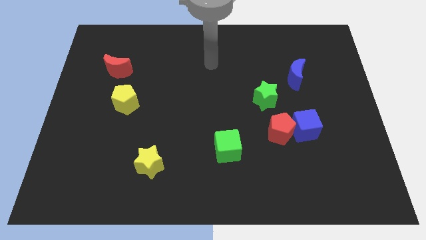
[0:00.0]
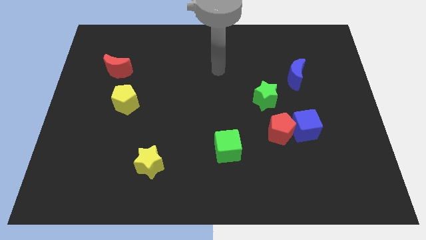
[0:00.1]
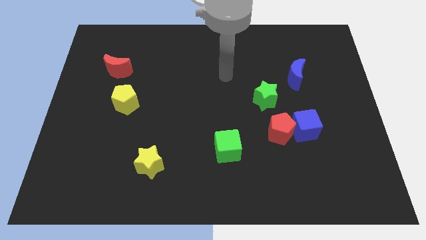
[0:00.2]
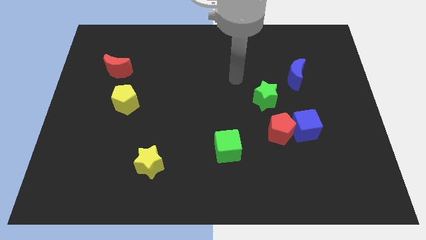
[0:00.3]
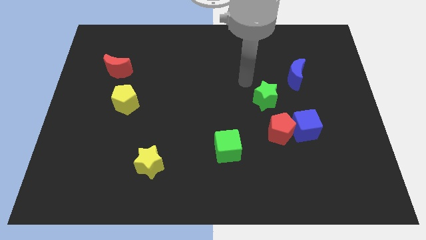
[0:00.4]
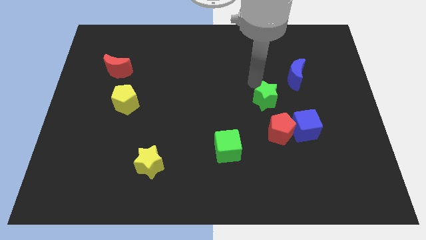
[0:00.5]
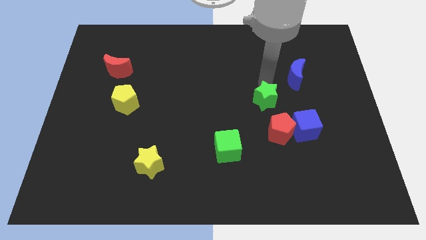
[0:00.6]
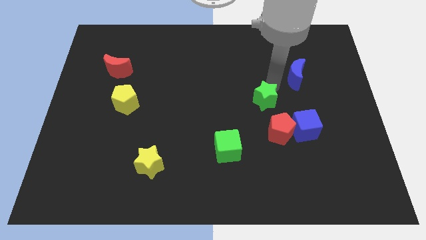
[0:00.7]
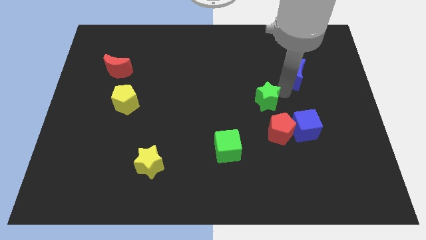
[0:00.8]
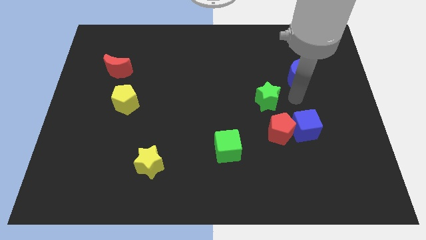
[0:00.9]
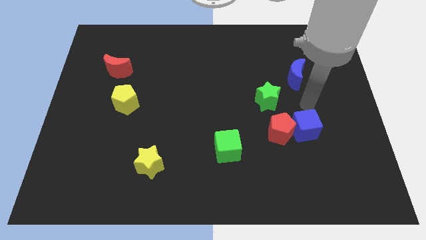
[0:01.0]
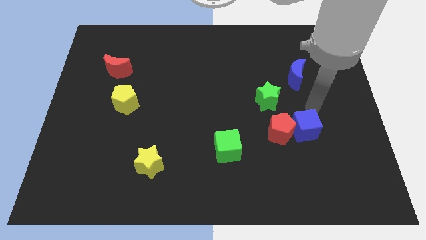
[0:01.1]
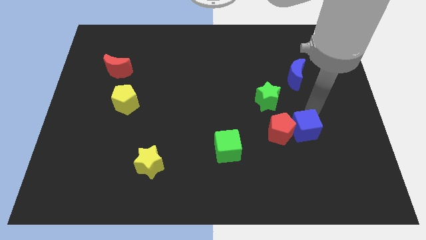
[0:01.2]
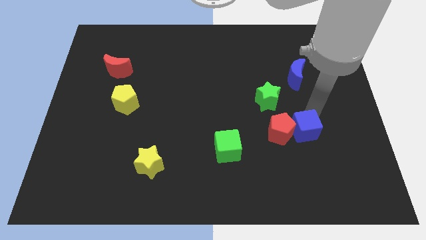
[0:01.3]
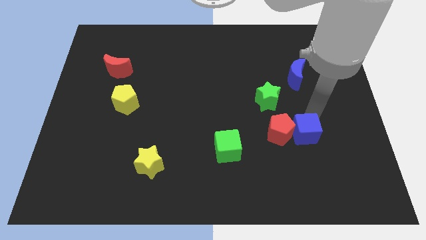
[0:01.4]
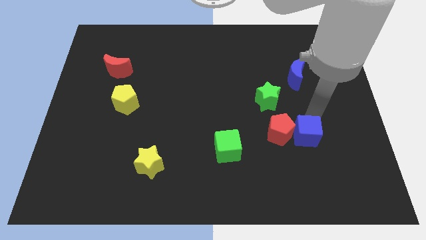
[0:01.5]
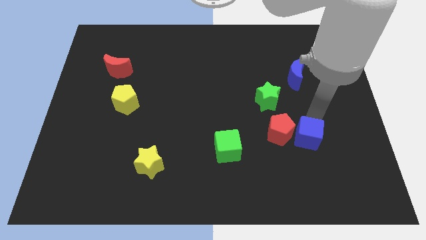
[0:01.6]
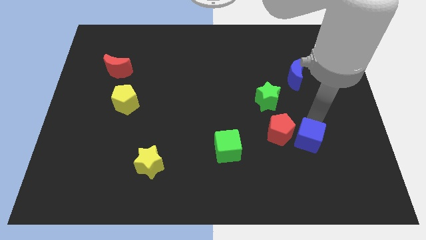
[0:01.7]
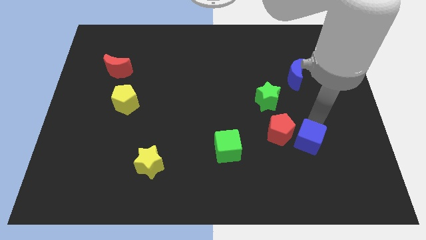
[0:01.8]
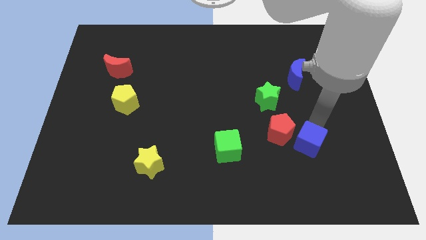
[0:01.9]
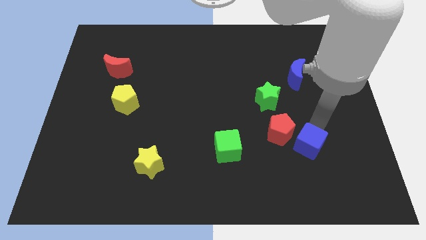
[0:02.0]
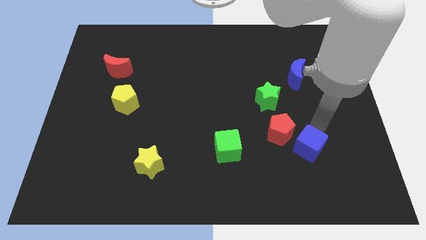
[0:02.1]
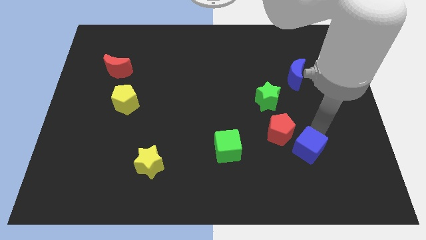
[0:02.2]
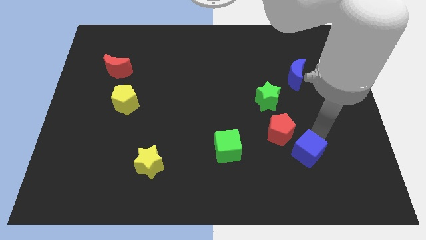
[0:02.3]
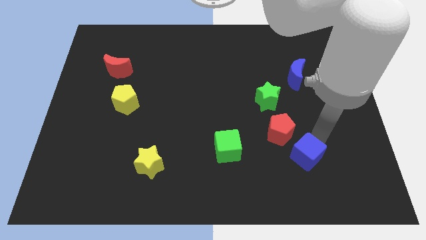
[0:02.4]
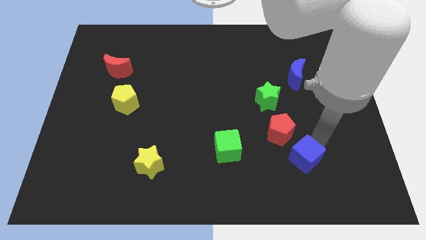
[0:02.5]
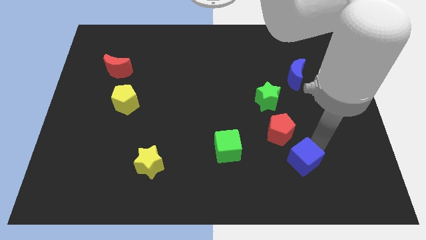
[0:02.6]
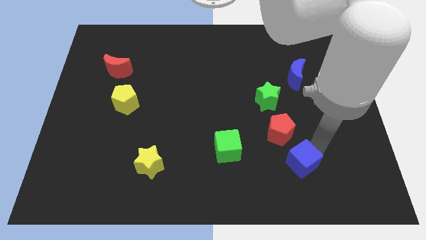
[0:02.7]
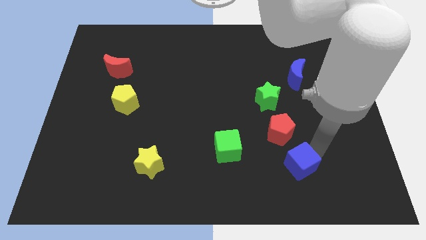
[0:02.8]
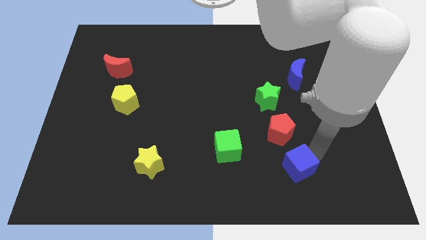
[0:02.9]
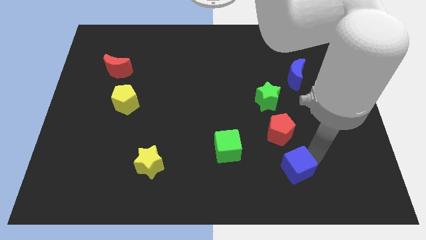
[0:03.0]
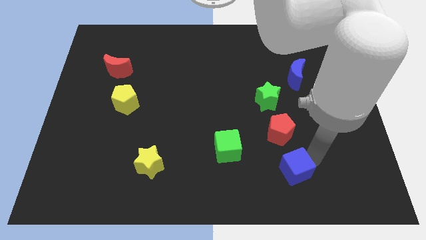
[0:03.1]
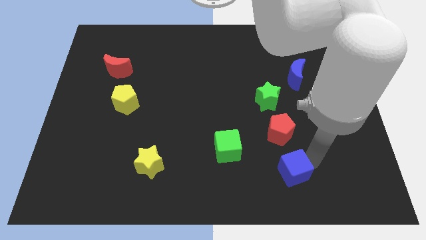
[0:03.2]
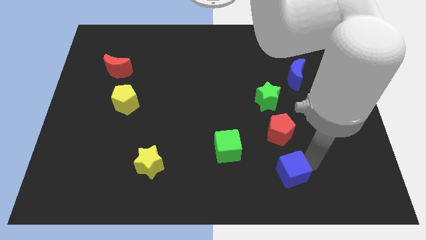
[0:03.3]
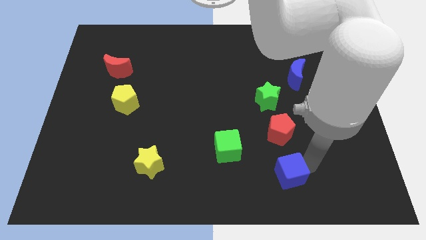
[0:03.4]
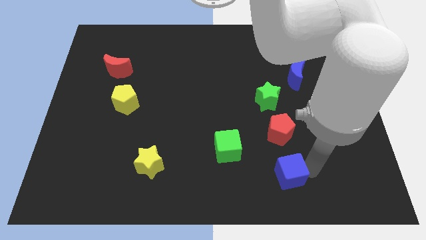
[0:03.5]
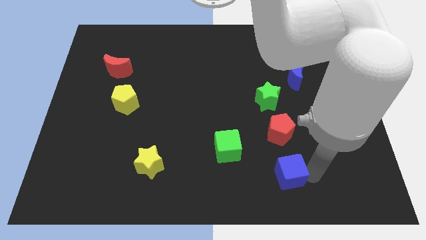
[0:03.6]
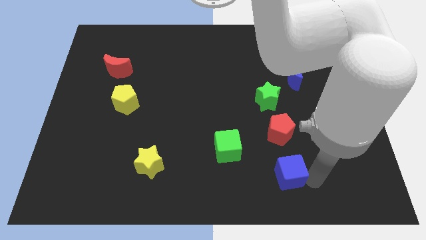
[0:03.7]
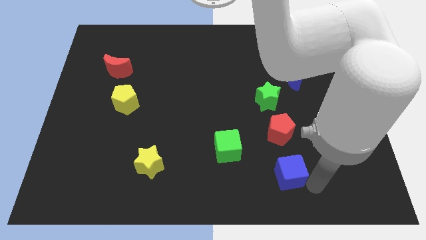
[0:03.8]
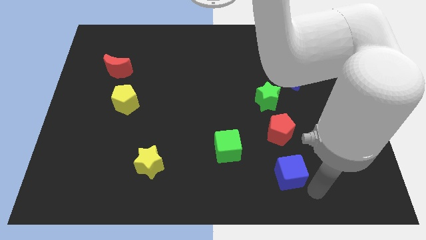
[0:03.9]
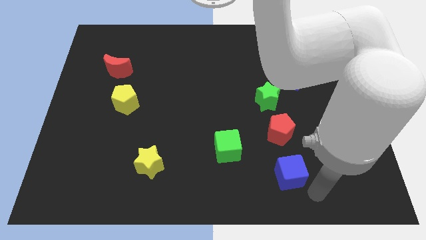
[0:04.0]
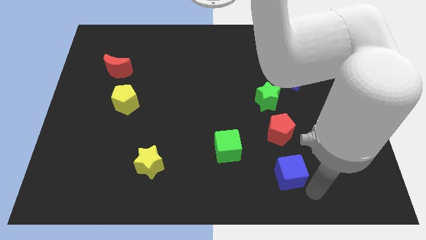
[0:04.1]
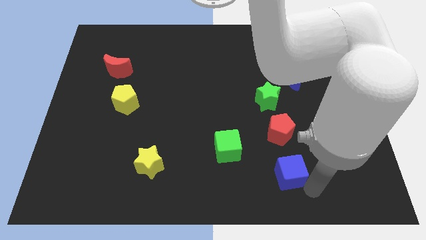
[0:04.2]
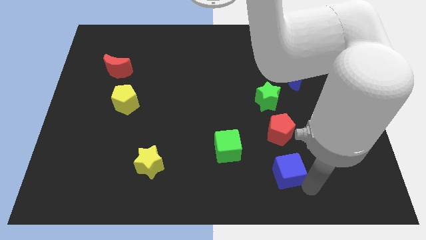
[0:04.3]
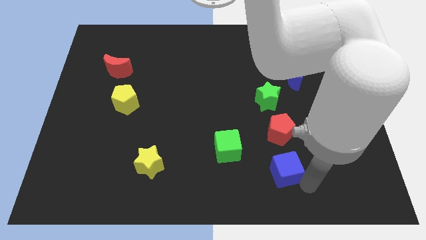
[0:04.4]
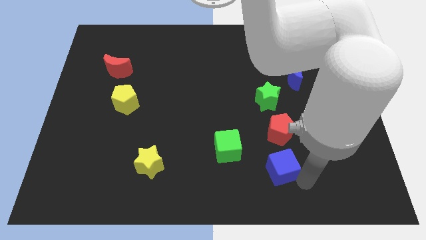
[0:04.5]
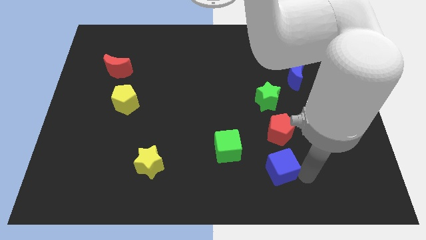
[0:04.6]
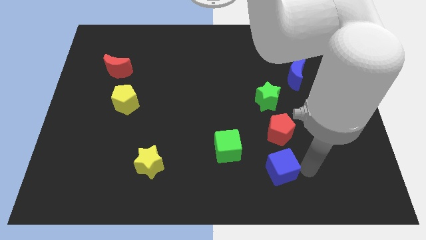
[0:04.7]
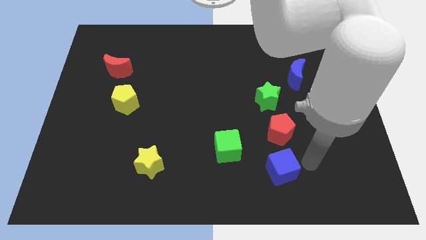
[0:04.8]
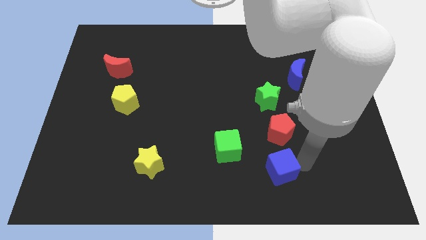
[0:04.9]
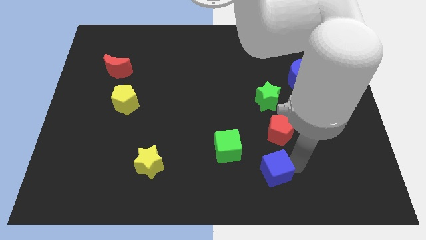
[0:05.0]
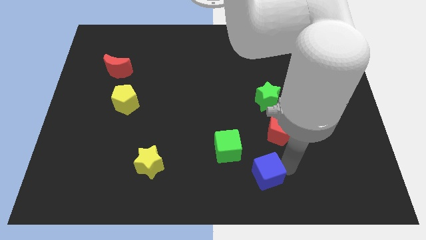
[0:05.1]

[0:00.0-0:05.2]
move the blue cube to the bottom

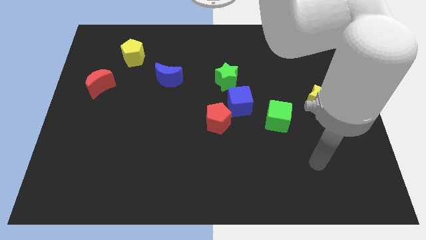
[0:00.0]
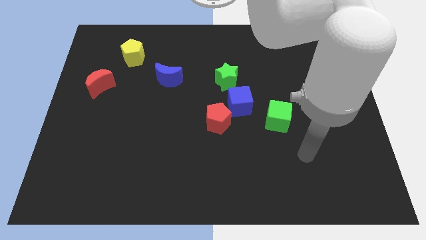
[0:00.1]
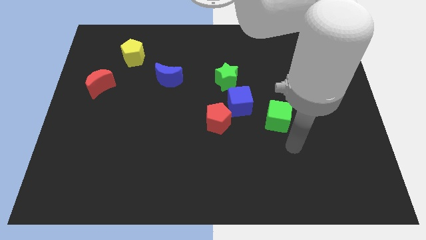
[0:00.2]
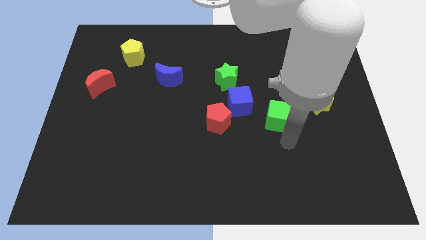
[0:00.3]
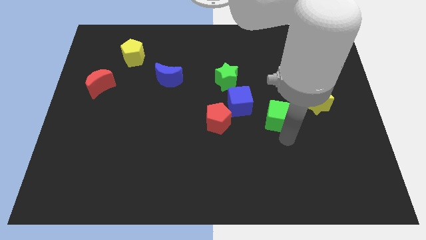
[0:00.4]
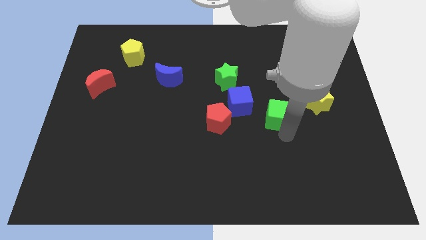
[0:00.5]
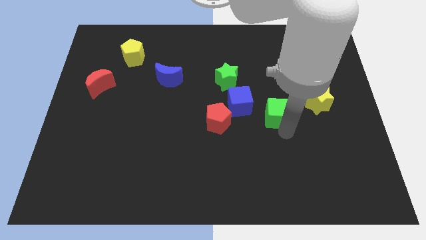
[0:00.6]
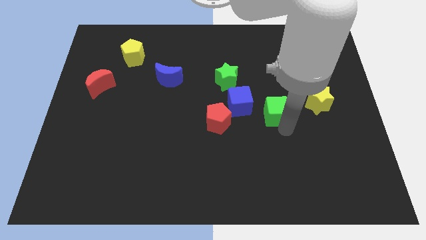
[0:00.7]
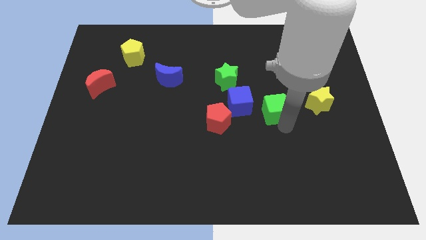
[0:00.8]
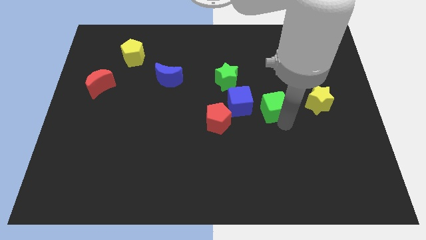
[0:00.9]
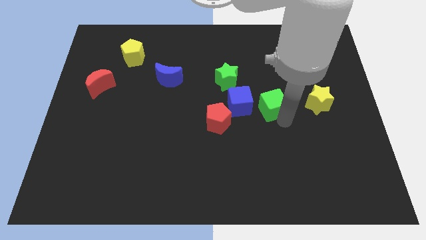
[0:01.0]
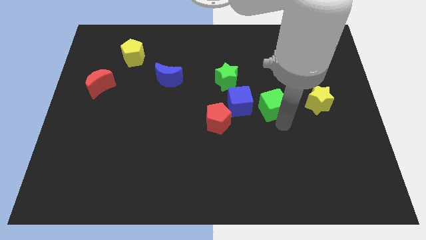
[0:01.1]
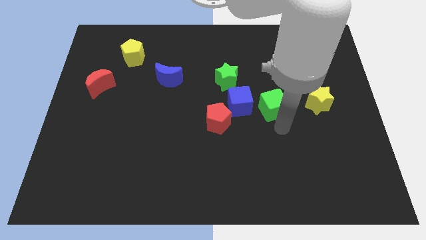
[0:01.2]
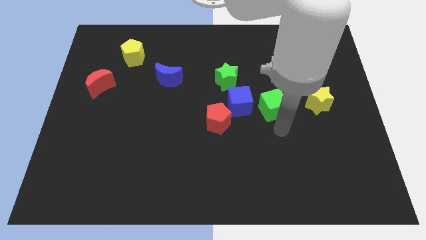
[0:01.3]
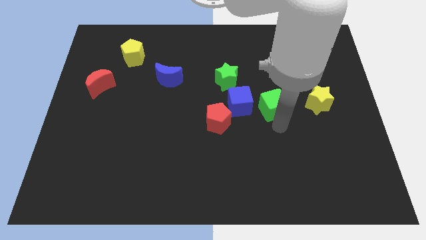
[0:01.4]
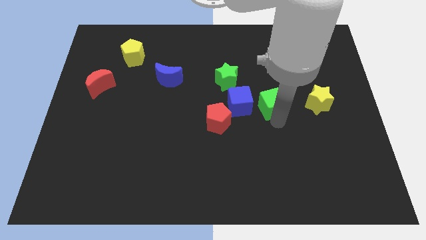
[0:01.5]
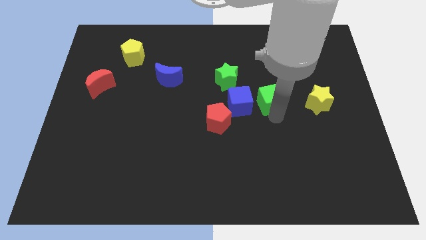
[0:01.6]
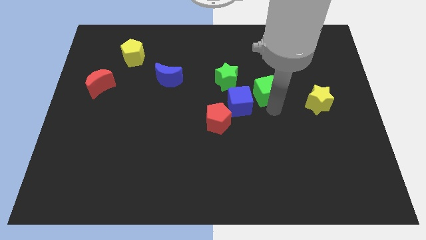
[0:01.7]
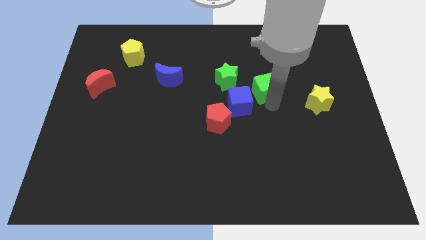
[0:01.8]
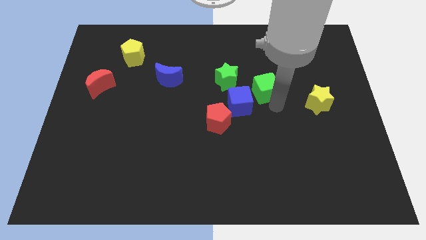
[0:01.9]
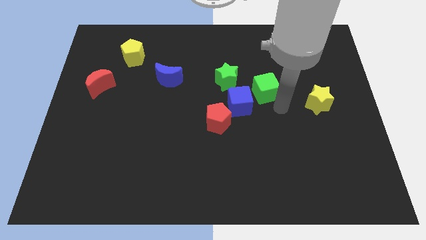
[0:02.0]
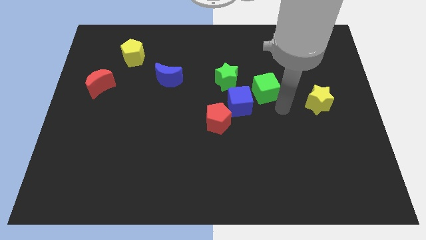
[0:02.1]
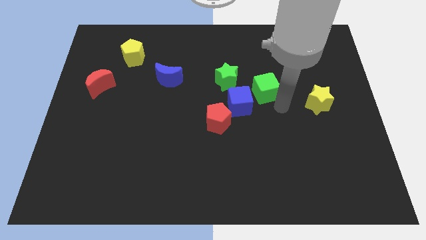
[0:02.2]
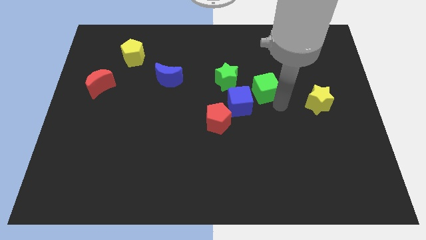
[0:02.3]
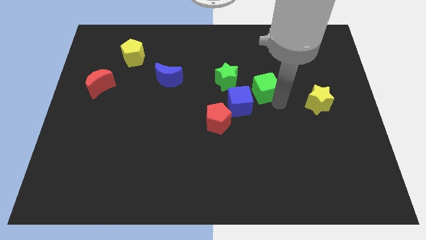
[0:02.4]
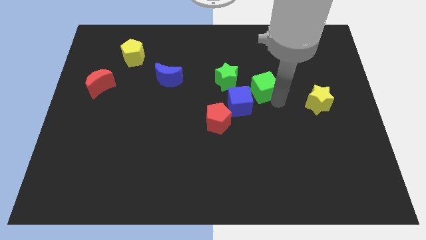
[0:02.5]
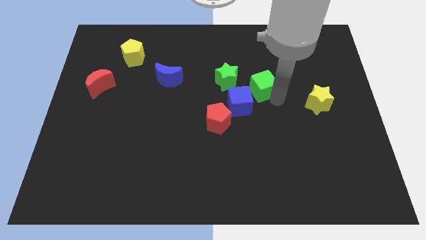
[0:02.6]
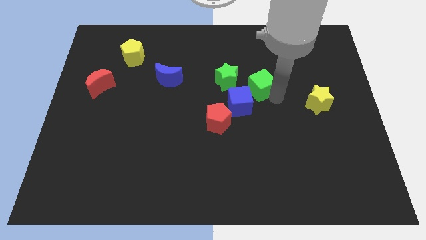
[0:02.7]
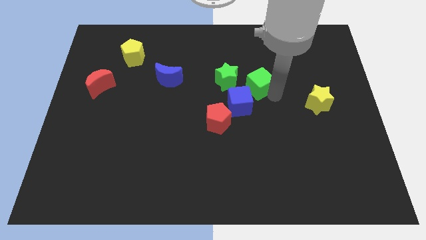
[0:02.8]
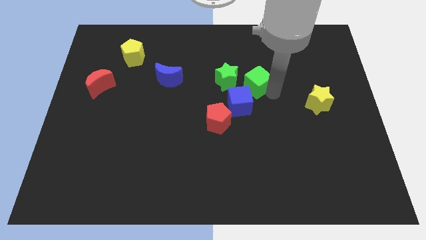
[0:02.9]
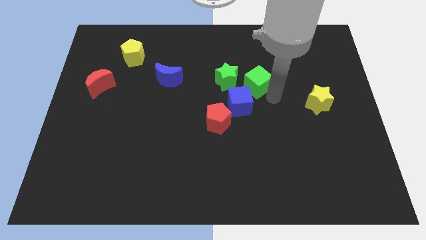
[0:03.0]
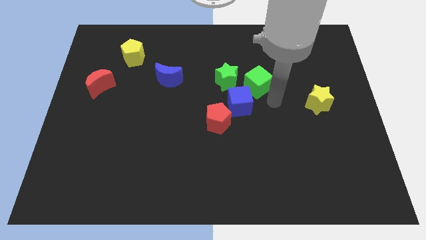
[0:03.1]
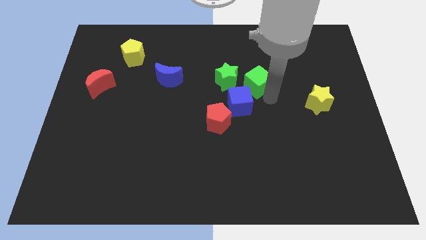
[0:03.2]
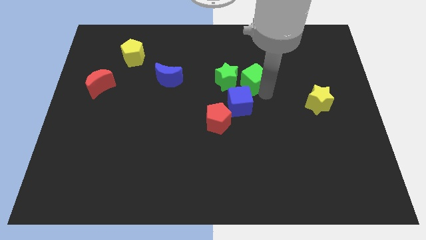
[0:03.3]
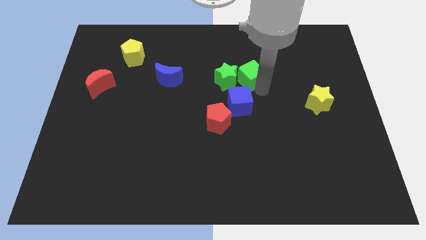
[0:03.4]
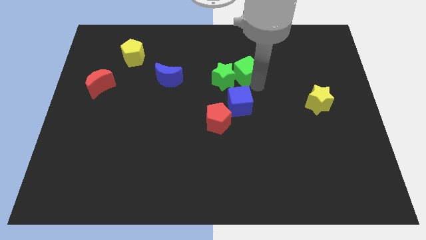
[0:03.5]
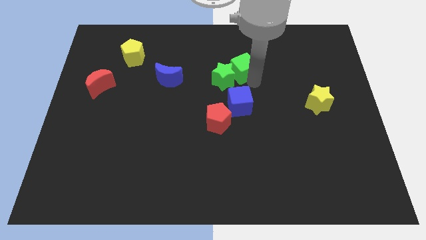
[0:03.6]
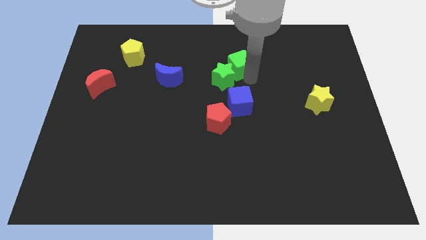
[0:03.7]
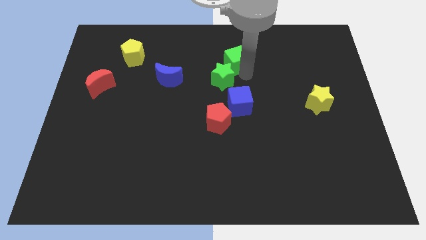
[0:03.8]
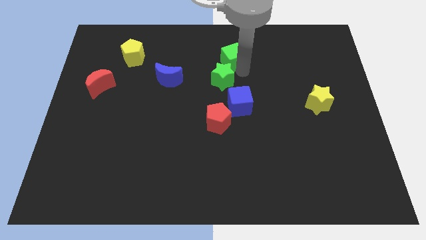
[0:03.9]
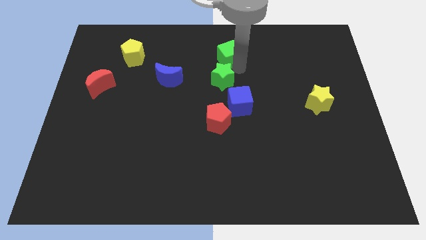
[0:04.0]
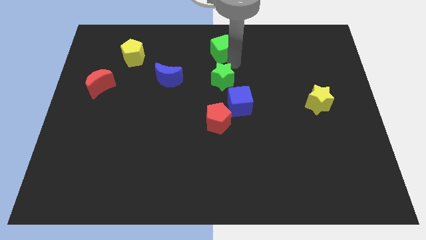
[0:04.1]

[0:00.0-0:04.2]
move the green cube to the top
